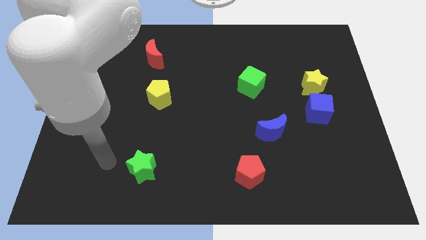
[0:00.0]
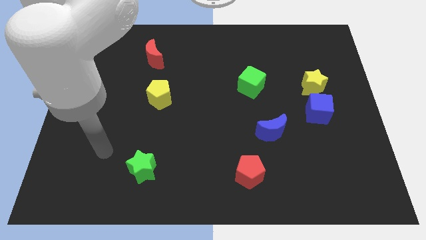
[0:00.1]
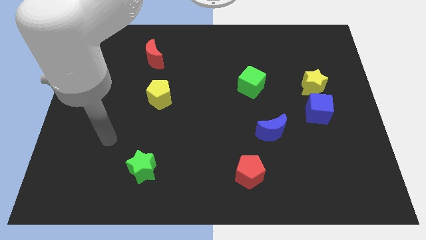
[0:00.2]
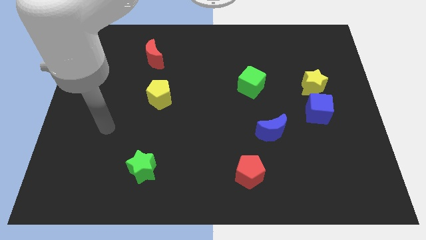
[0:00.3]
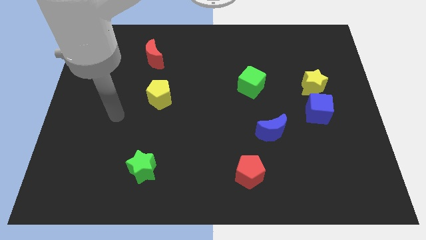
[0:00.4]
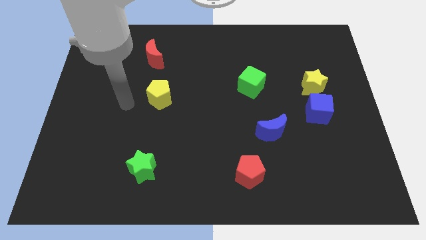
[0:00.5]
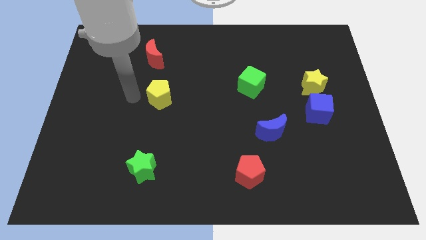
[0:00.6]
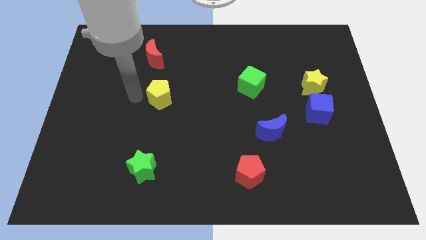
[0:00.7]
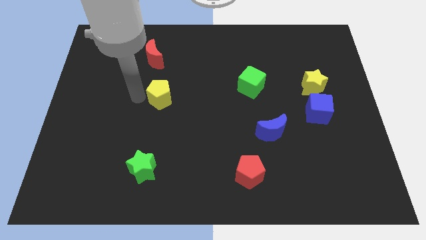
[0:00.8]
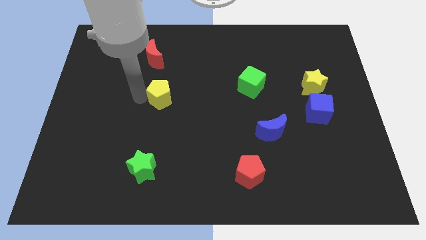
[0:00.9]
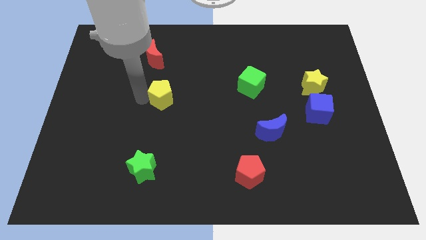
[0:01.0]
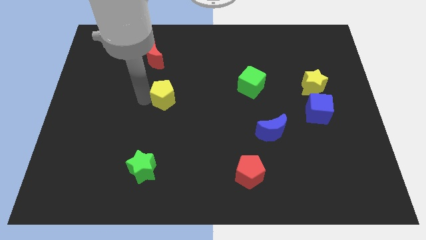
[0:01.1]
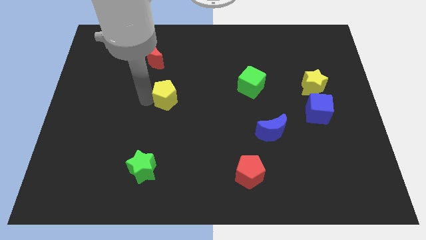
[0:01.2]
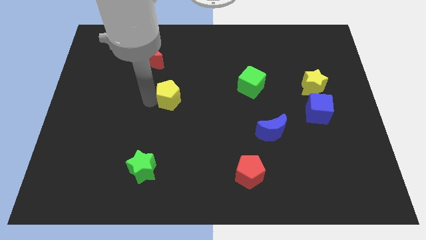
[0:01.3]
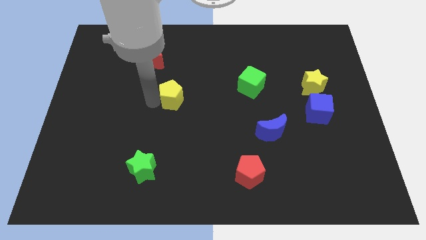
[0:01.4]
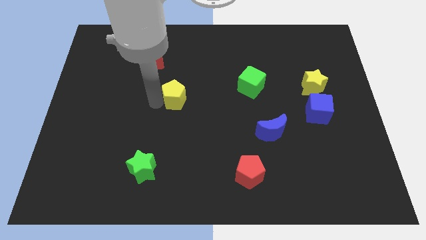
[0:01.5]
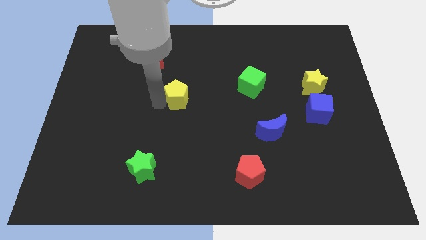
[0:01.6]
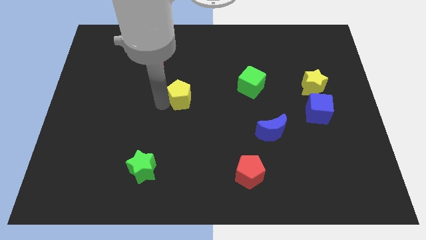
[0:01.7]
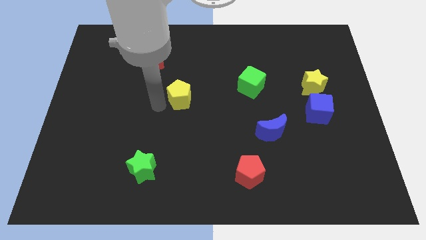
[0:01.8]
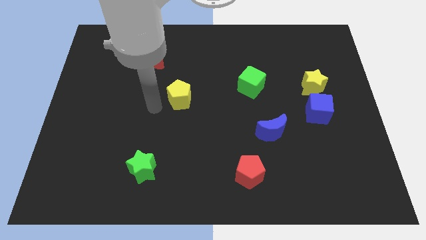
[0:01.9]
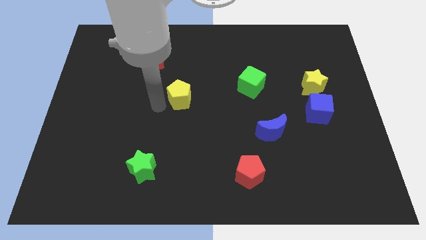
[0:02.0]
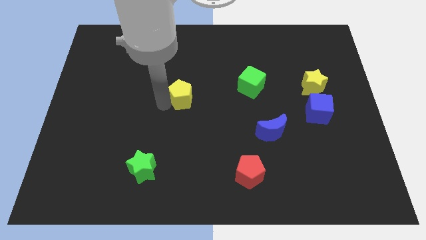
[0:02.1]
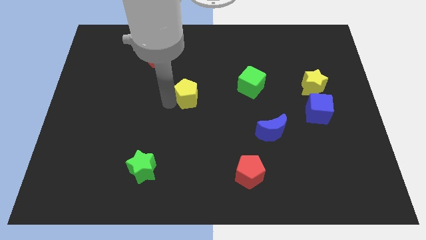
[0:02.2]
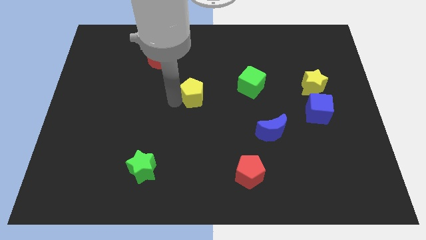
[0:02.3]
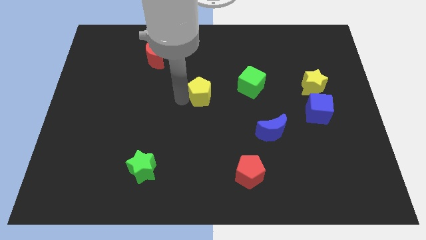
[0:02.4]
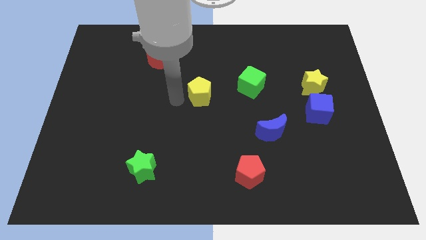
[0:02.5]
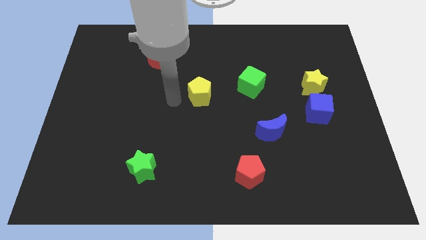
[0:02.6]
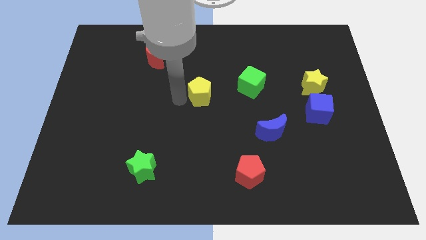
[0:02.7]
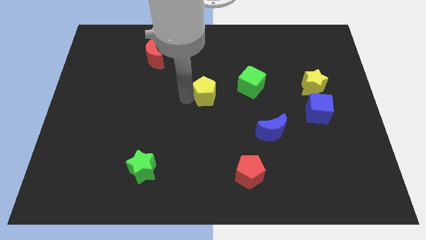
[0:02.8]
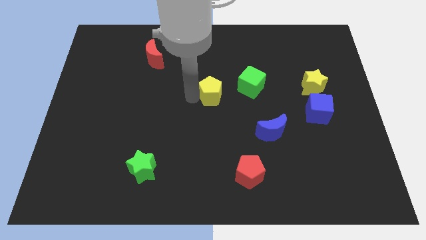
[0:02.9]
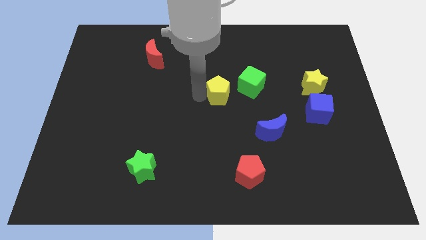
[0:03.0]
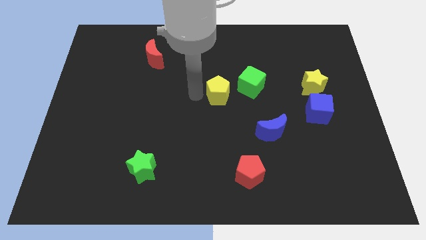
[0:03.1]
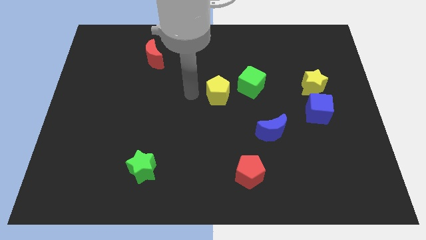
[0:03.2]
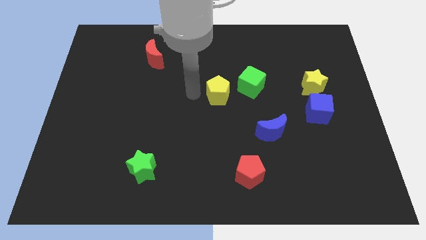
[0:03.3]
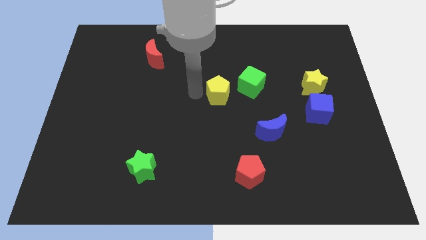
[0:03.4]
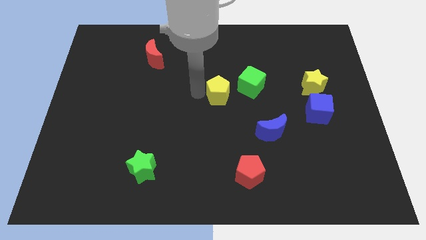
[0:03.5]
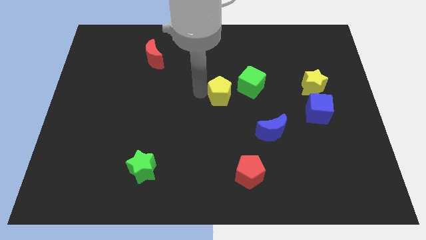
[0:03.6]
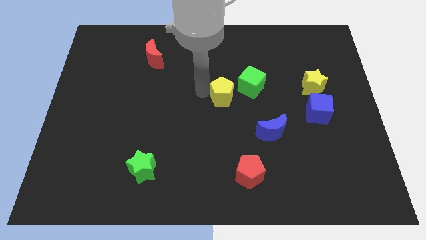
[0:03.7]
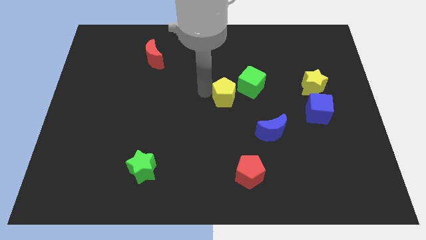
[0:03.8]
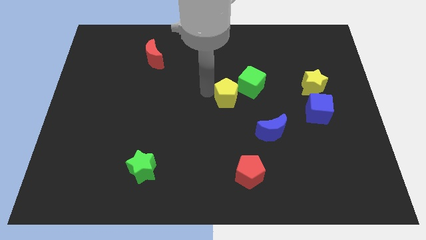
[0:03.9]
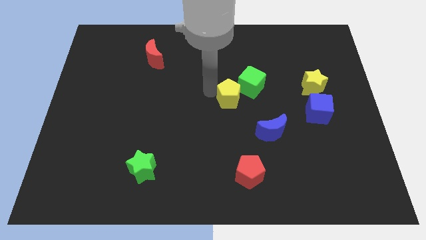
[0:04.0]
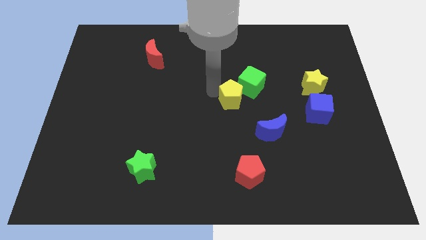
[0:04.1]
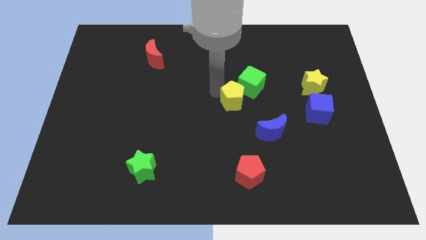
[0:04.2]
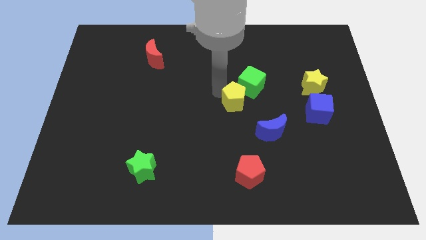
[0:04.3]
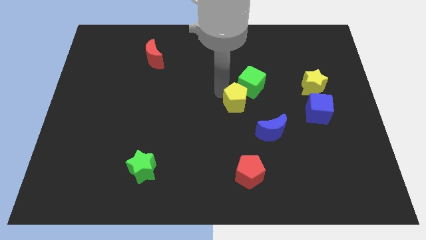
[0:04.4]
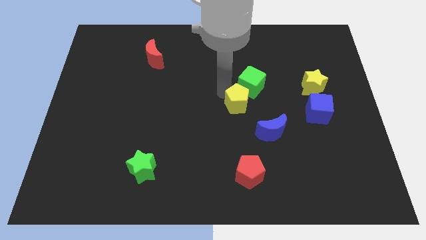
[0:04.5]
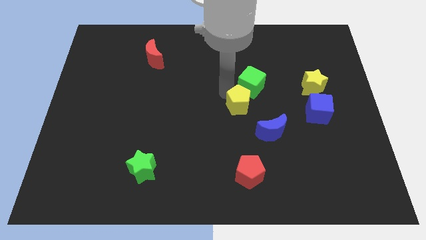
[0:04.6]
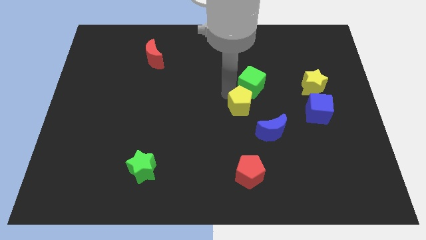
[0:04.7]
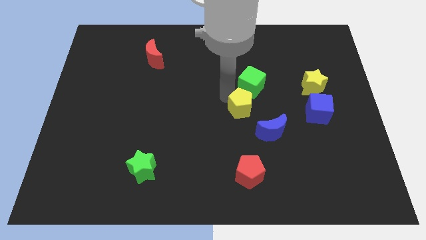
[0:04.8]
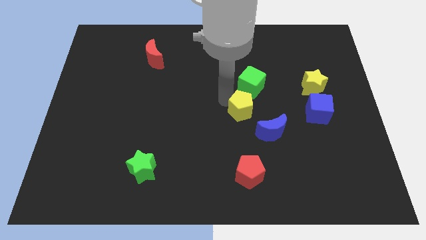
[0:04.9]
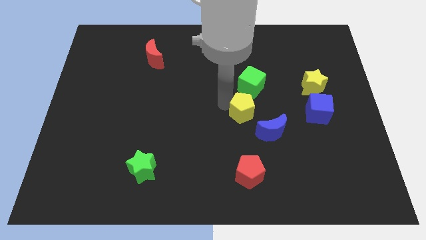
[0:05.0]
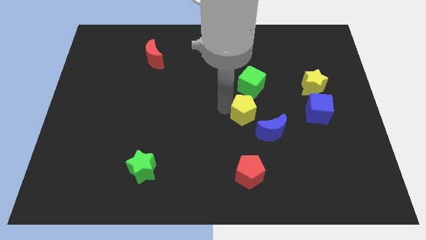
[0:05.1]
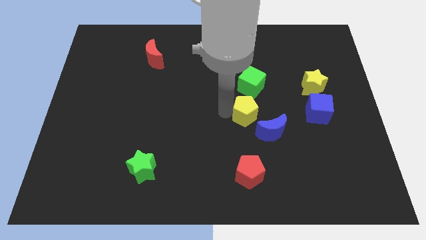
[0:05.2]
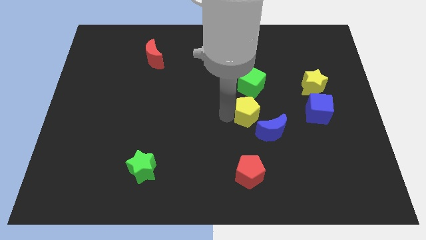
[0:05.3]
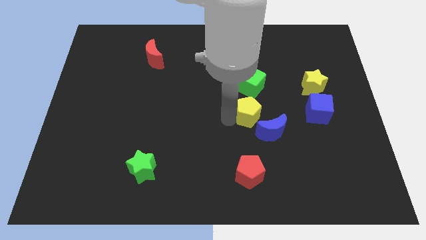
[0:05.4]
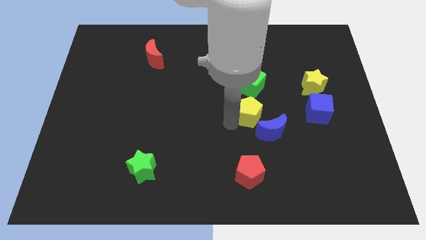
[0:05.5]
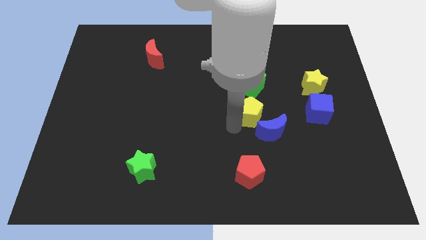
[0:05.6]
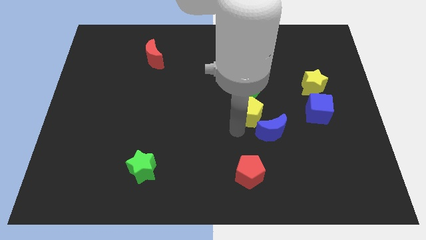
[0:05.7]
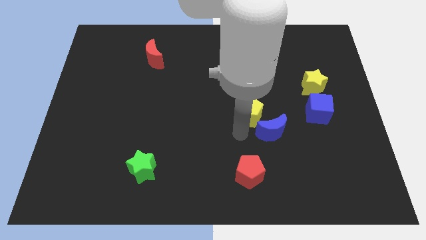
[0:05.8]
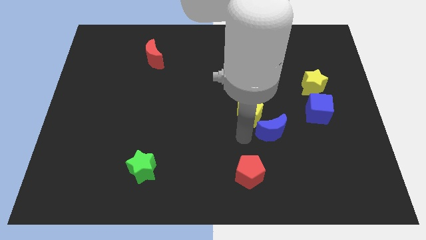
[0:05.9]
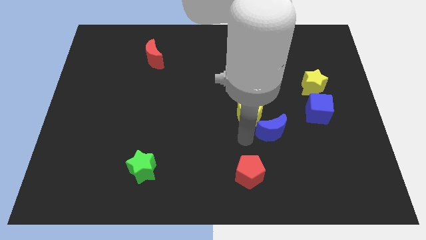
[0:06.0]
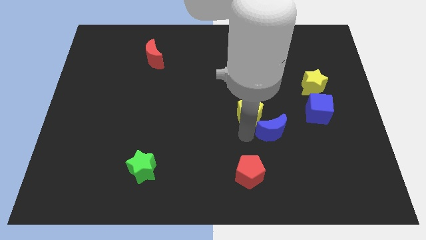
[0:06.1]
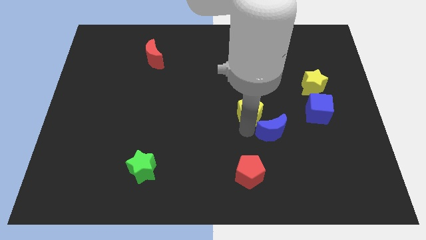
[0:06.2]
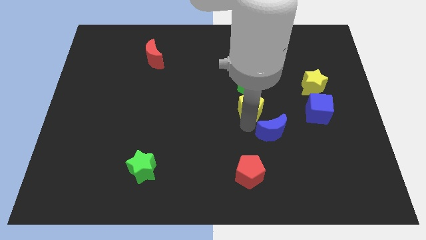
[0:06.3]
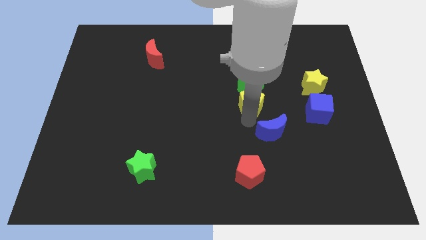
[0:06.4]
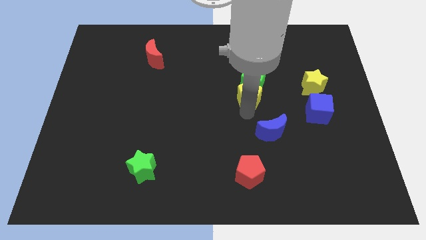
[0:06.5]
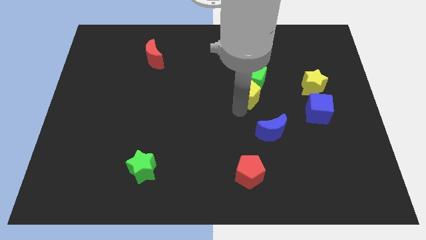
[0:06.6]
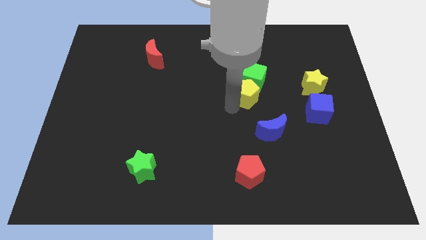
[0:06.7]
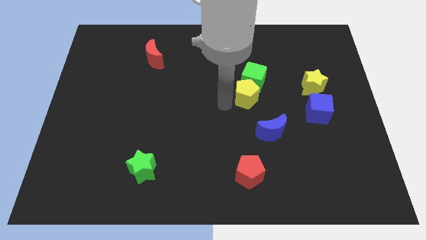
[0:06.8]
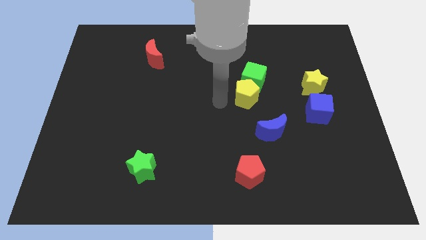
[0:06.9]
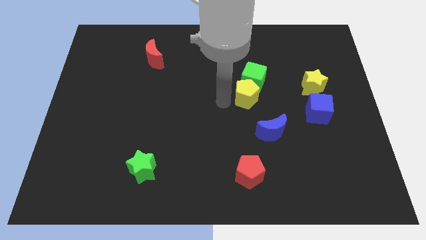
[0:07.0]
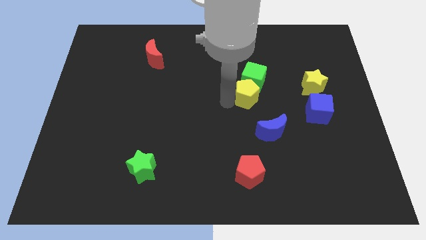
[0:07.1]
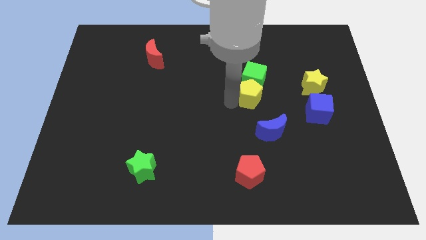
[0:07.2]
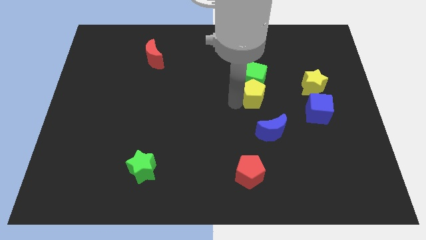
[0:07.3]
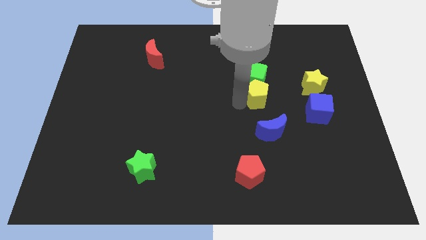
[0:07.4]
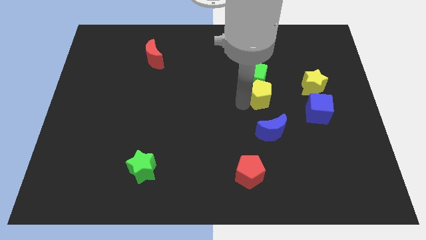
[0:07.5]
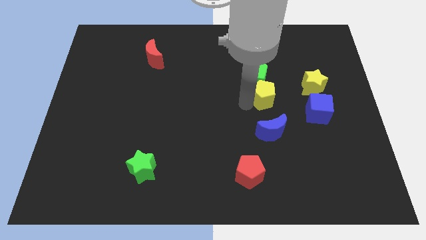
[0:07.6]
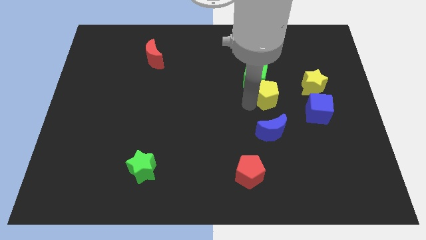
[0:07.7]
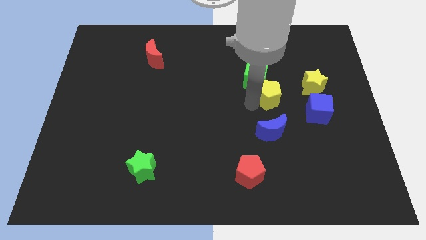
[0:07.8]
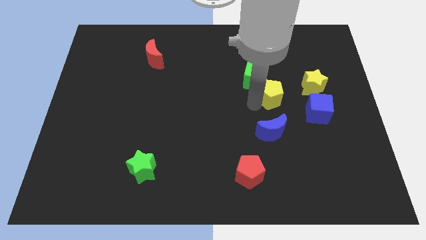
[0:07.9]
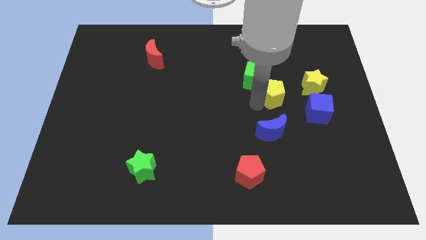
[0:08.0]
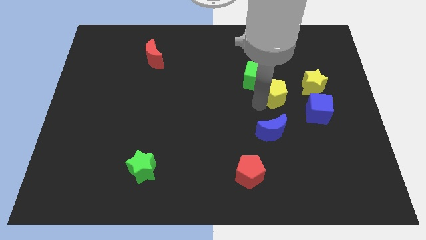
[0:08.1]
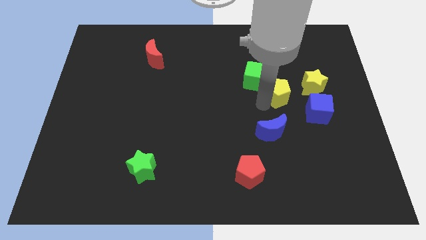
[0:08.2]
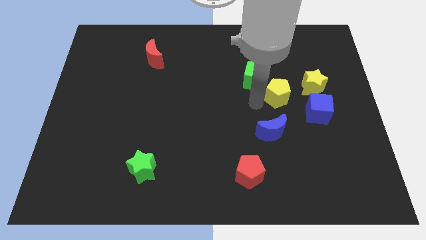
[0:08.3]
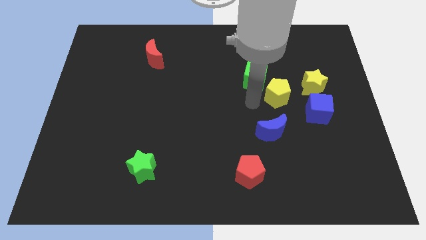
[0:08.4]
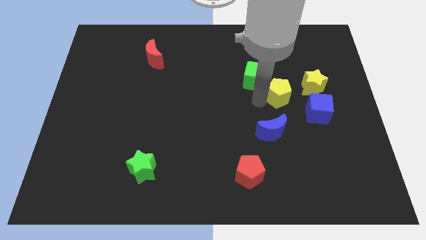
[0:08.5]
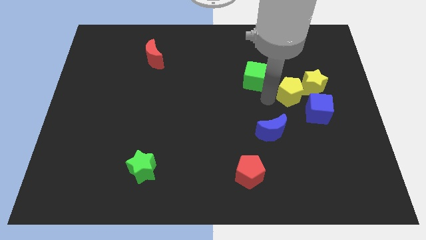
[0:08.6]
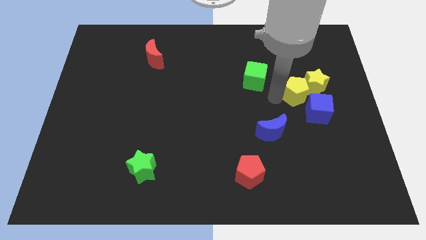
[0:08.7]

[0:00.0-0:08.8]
push the yellow pentagon close to the yellow star
